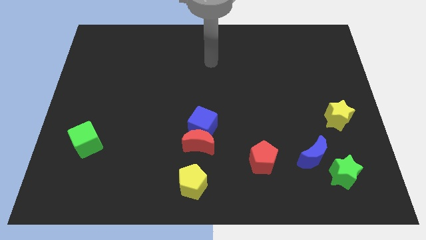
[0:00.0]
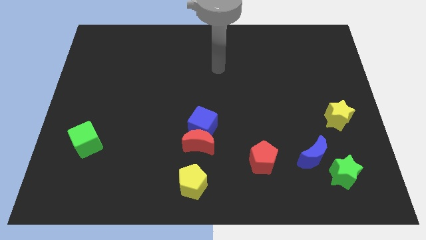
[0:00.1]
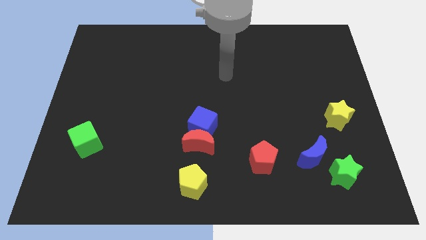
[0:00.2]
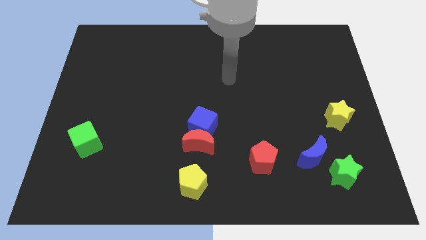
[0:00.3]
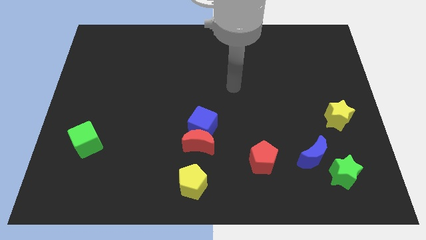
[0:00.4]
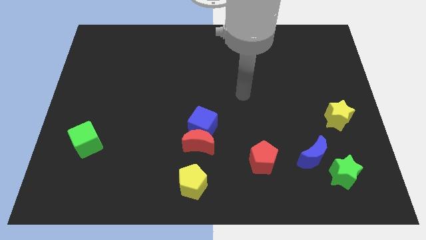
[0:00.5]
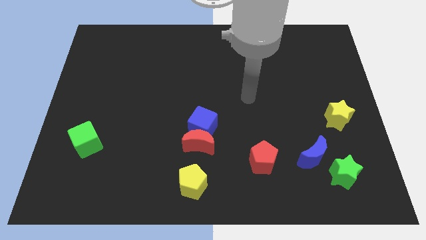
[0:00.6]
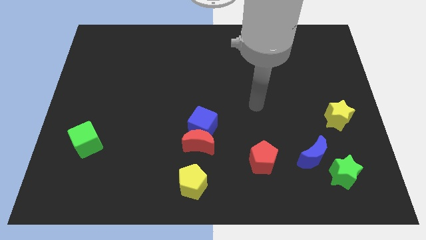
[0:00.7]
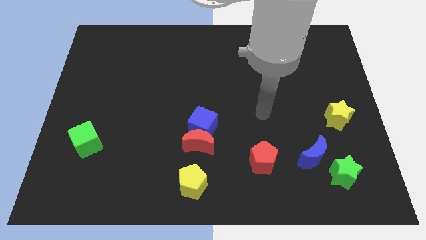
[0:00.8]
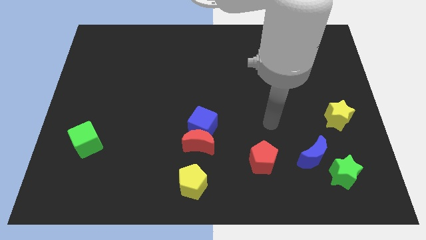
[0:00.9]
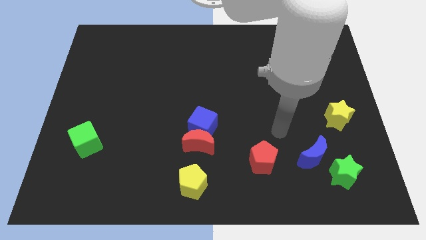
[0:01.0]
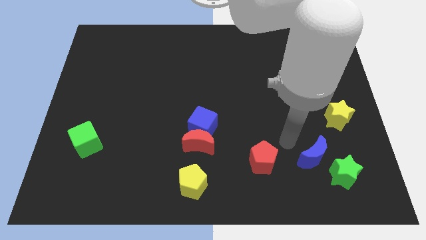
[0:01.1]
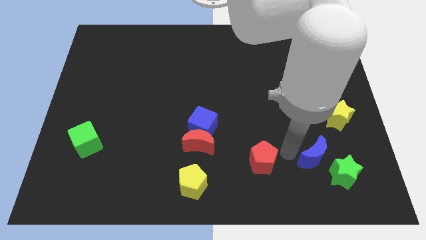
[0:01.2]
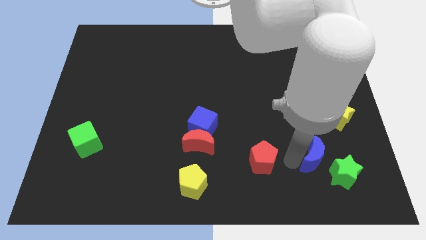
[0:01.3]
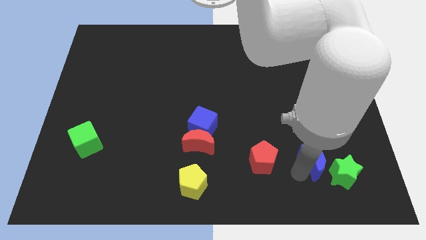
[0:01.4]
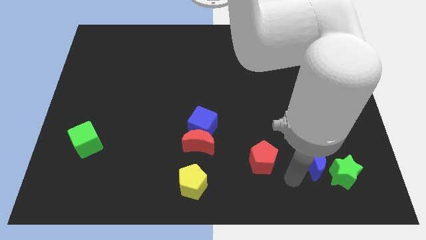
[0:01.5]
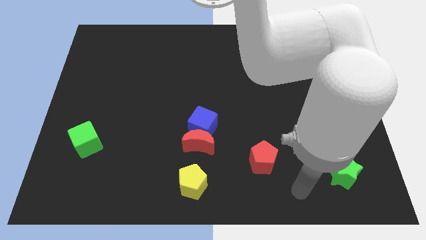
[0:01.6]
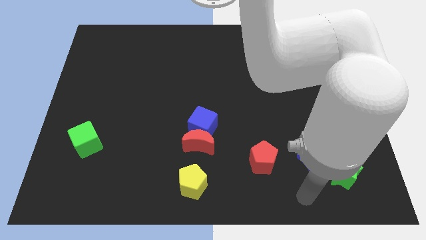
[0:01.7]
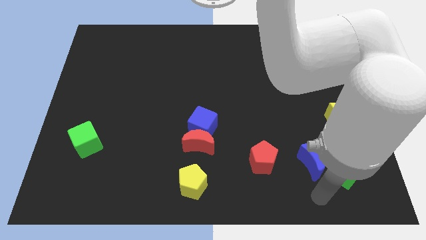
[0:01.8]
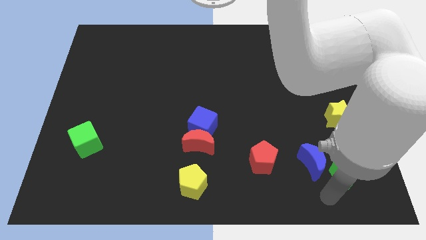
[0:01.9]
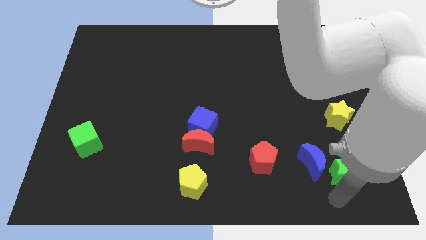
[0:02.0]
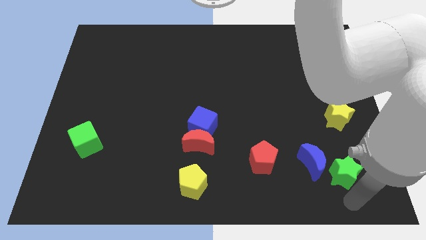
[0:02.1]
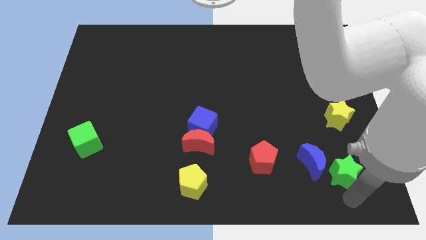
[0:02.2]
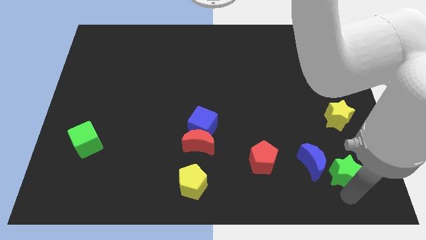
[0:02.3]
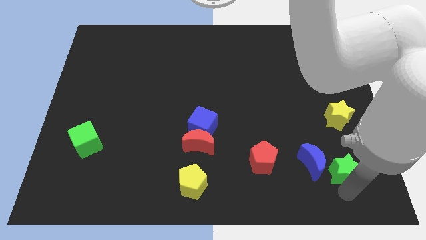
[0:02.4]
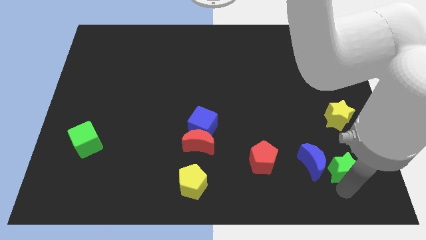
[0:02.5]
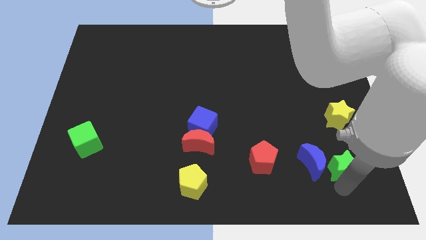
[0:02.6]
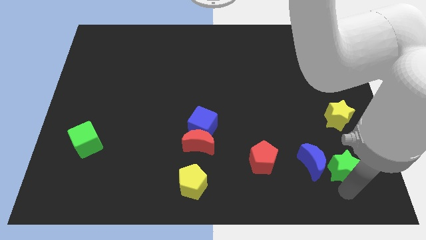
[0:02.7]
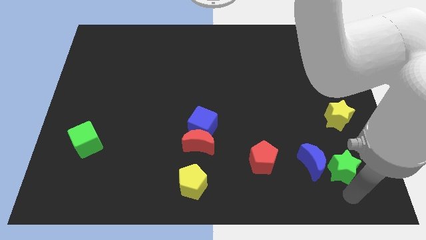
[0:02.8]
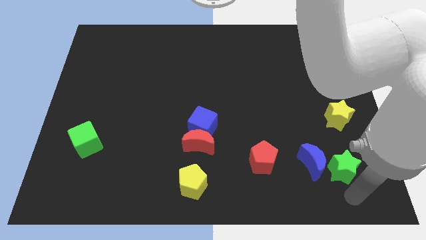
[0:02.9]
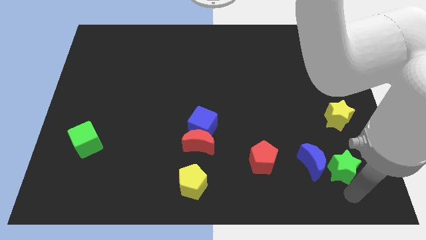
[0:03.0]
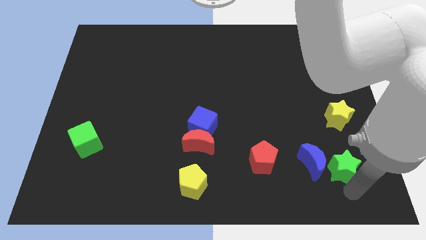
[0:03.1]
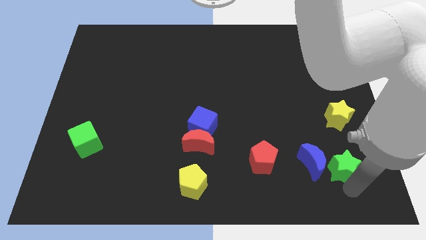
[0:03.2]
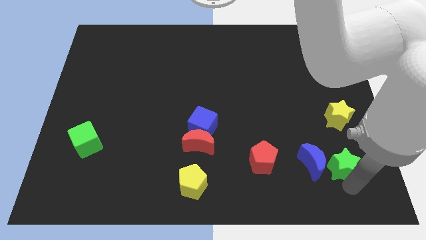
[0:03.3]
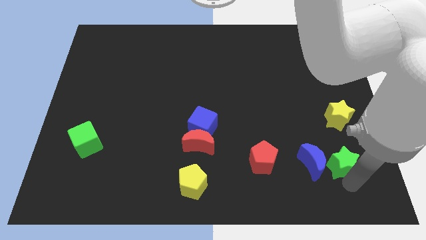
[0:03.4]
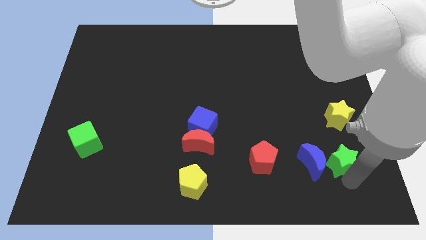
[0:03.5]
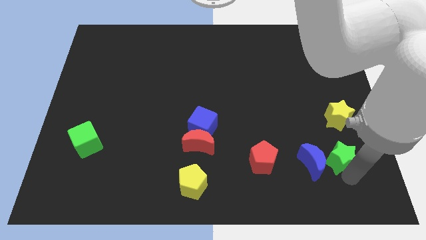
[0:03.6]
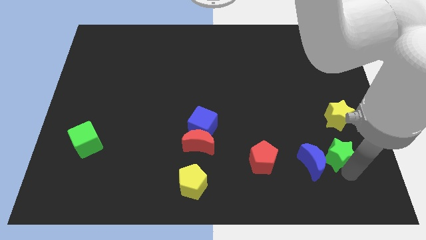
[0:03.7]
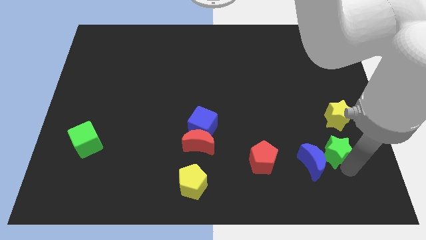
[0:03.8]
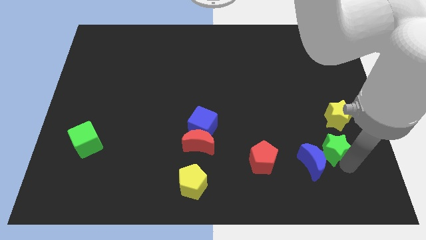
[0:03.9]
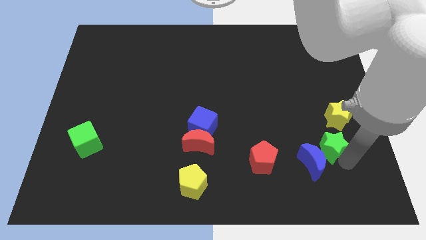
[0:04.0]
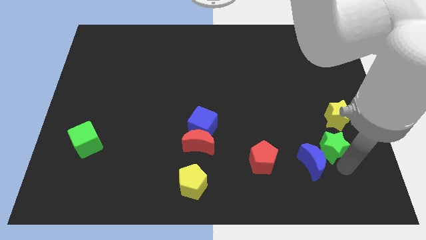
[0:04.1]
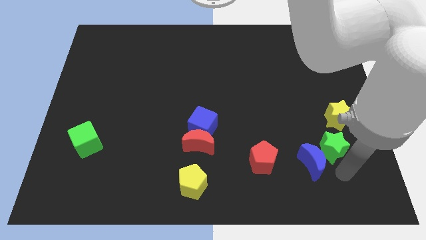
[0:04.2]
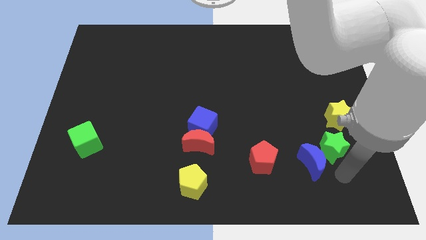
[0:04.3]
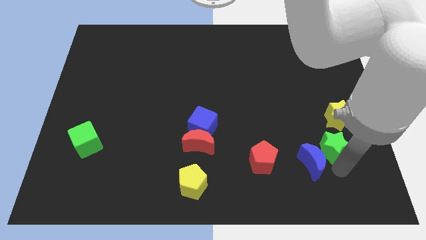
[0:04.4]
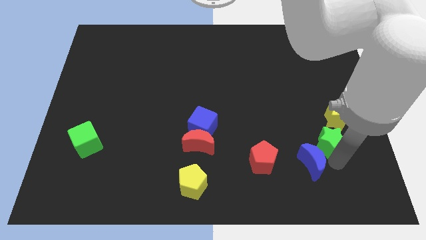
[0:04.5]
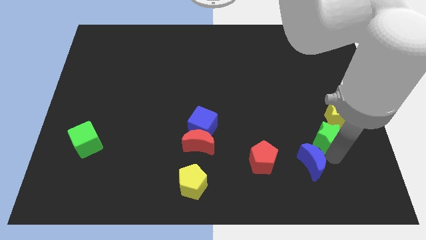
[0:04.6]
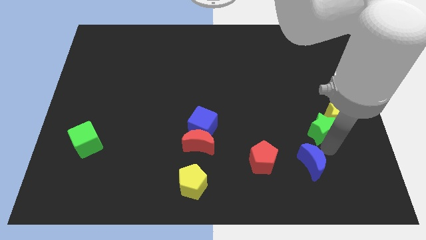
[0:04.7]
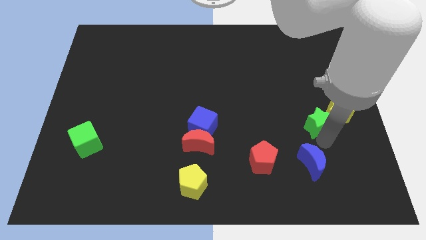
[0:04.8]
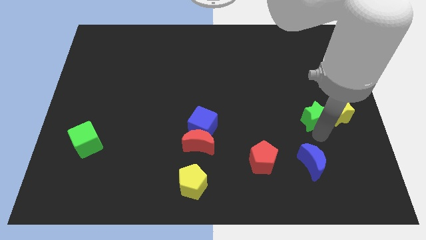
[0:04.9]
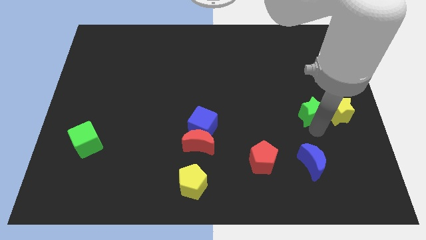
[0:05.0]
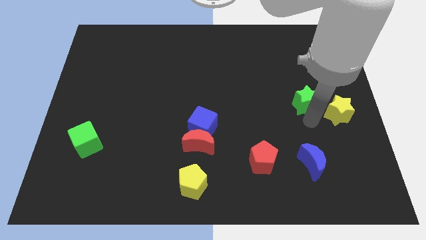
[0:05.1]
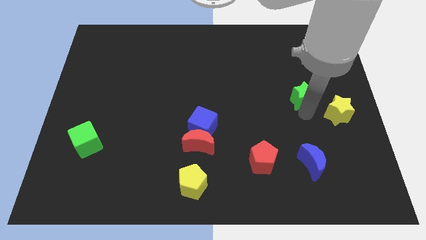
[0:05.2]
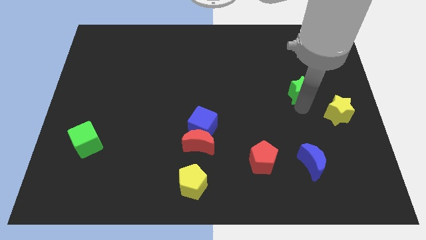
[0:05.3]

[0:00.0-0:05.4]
slide the green star upwards

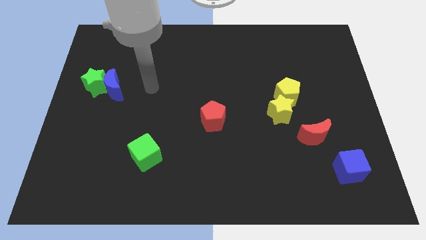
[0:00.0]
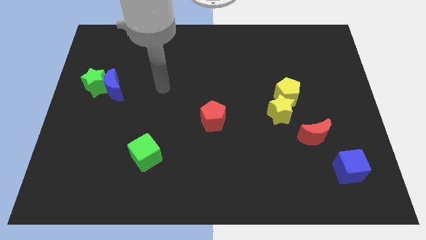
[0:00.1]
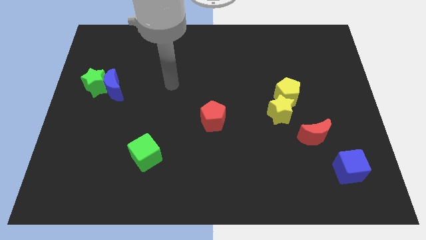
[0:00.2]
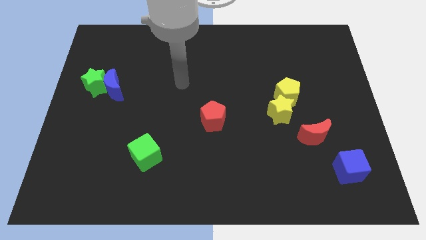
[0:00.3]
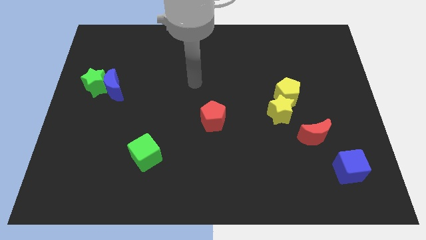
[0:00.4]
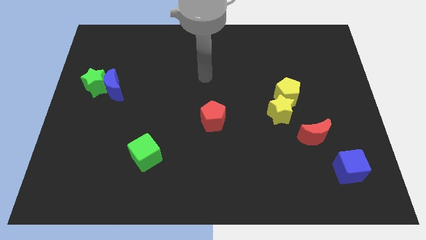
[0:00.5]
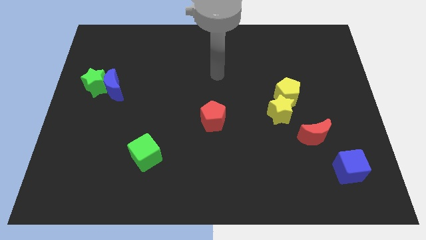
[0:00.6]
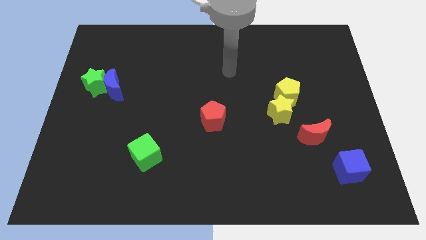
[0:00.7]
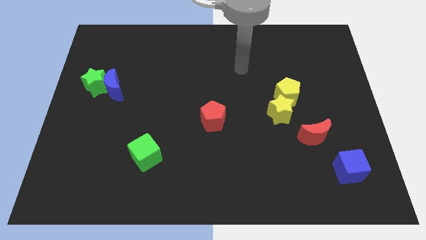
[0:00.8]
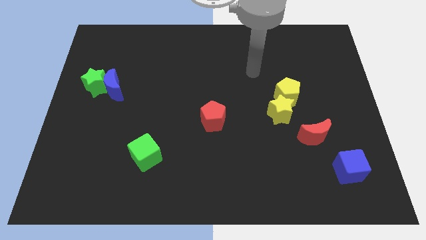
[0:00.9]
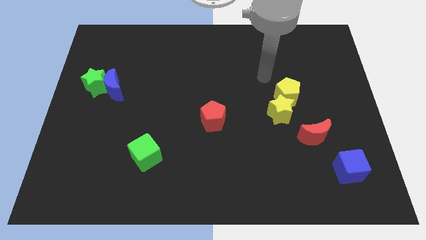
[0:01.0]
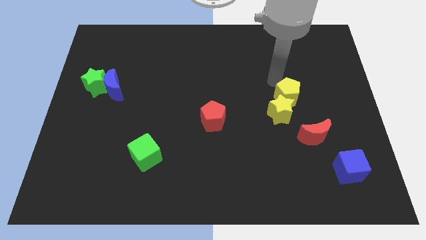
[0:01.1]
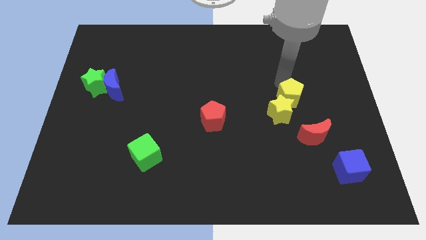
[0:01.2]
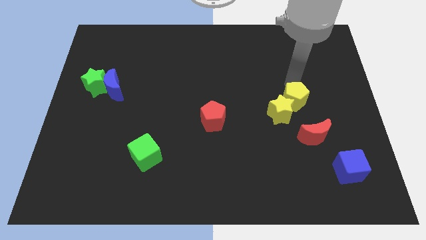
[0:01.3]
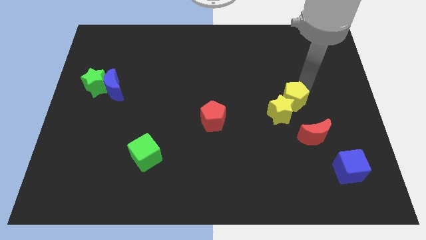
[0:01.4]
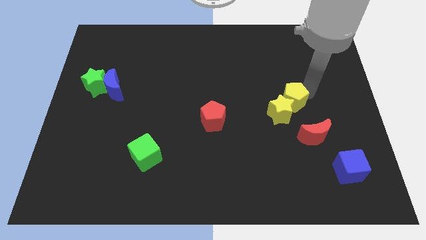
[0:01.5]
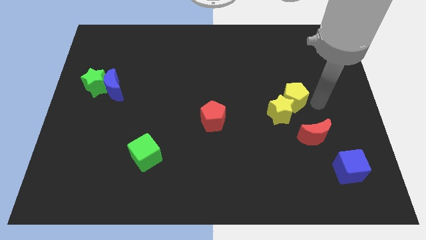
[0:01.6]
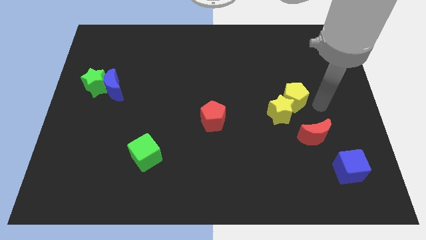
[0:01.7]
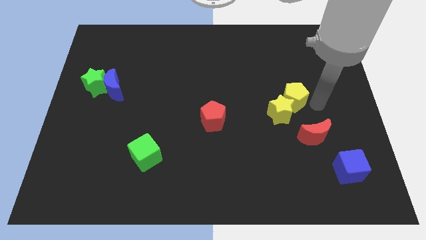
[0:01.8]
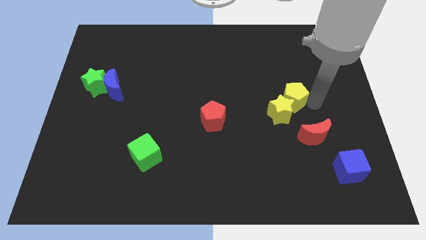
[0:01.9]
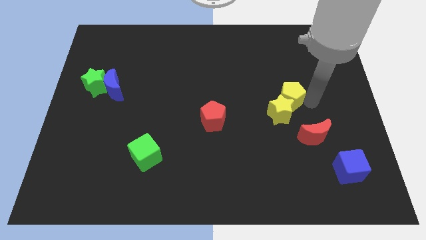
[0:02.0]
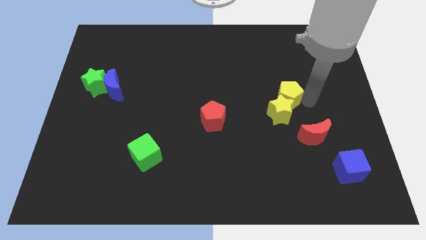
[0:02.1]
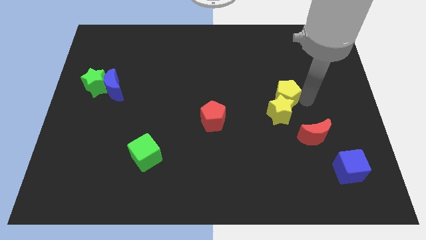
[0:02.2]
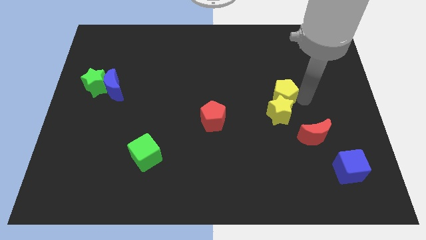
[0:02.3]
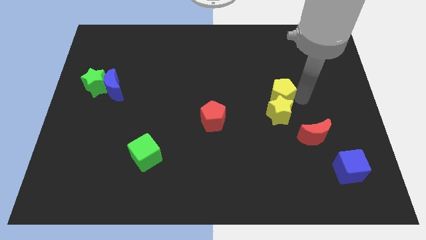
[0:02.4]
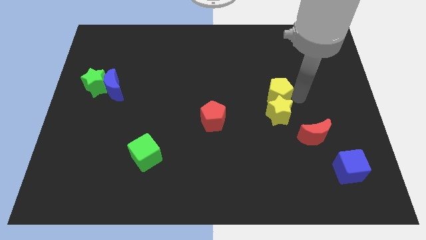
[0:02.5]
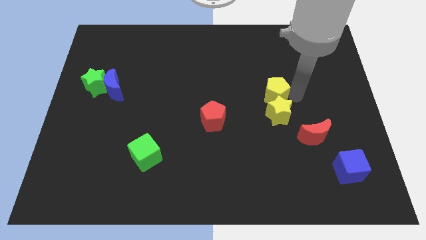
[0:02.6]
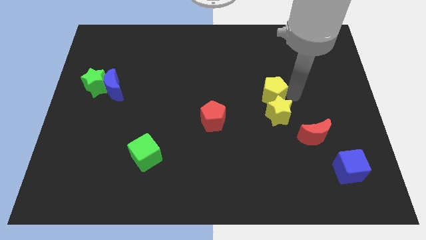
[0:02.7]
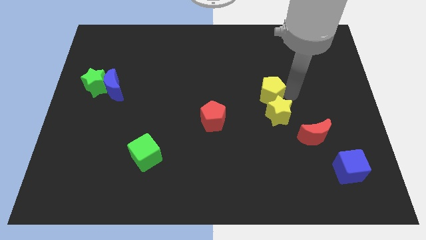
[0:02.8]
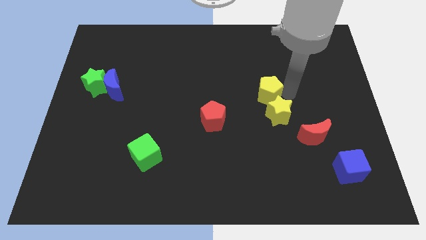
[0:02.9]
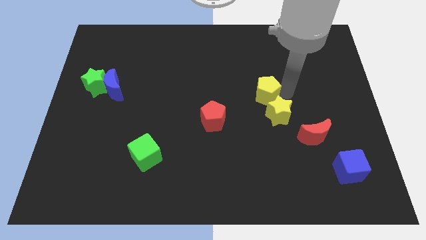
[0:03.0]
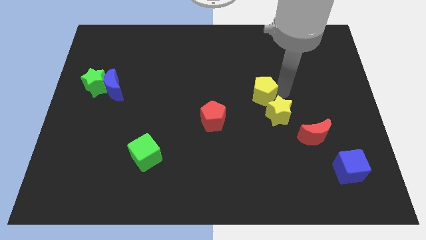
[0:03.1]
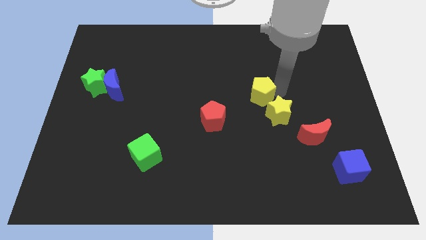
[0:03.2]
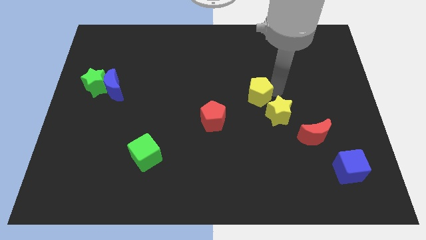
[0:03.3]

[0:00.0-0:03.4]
move the yellow pentagon left a bit
